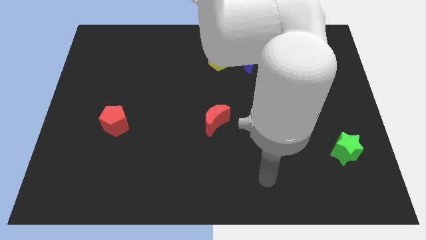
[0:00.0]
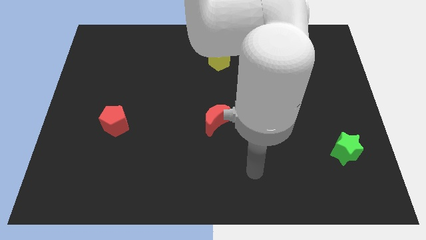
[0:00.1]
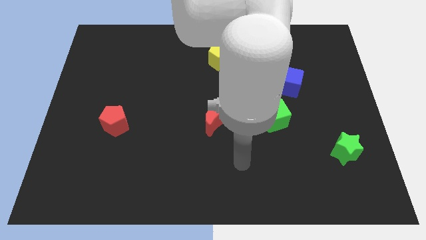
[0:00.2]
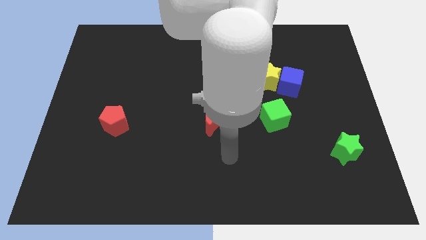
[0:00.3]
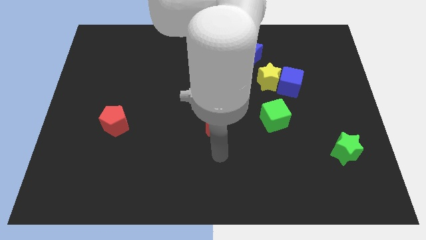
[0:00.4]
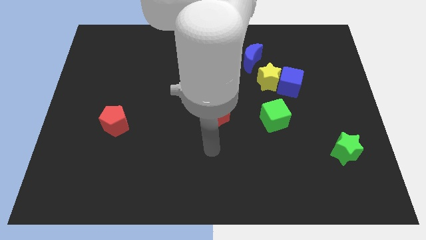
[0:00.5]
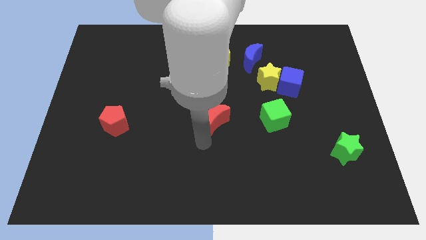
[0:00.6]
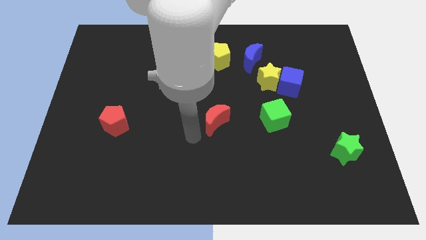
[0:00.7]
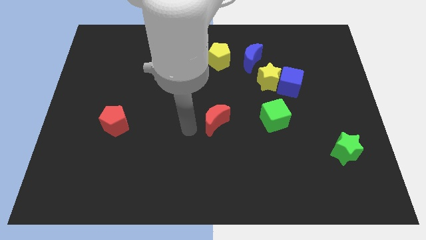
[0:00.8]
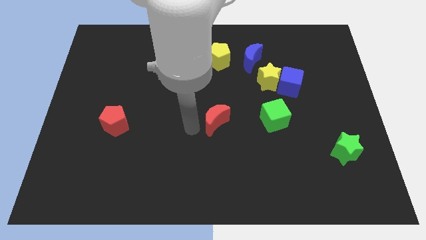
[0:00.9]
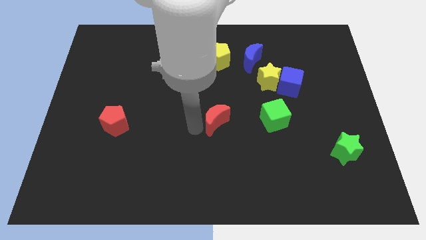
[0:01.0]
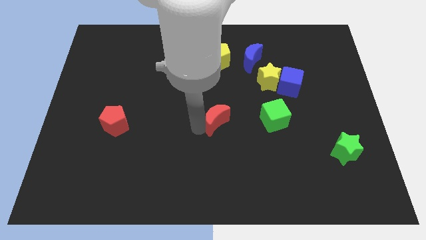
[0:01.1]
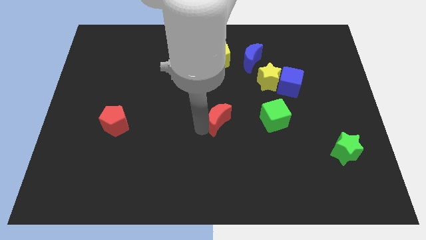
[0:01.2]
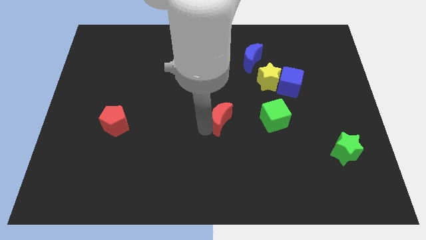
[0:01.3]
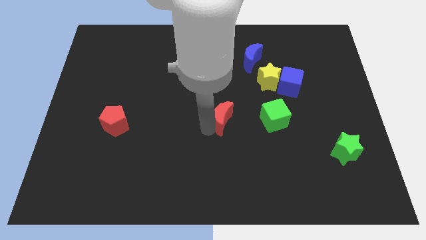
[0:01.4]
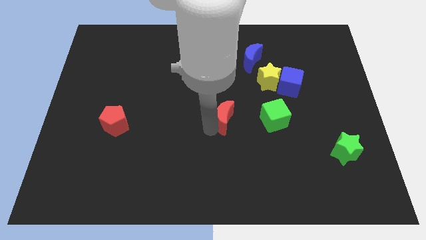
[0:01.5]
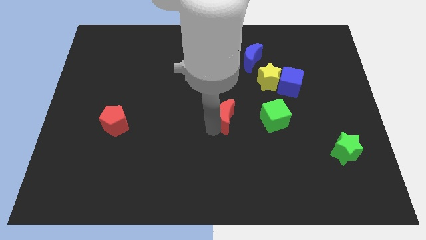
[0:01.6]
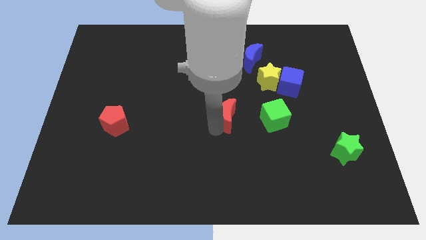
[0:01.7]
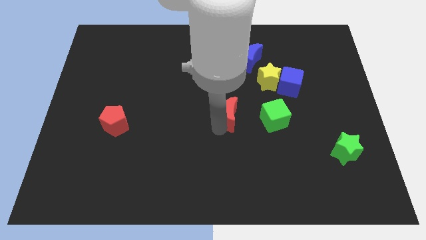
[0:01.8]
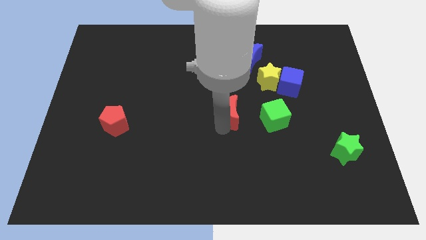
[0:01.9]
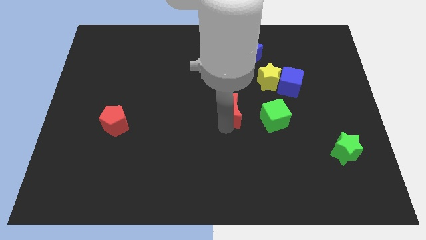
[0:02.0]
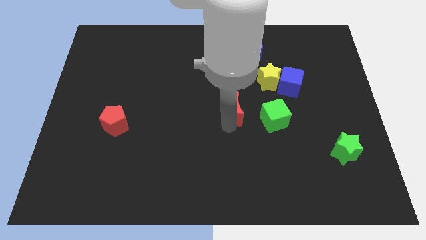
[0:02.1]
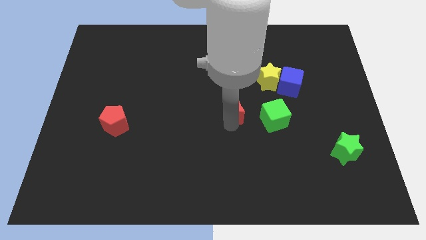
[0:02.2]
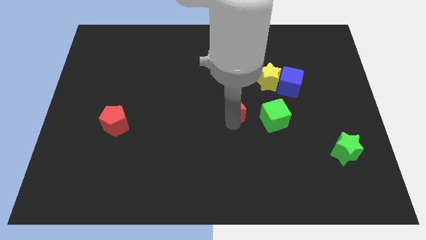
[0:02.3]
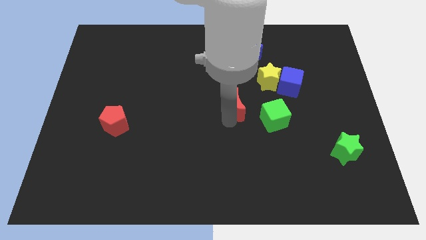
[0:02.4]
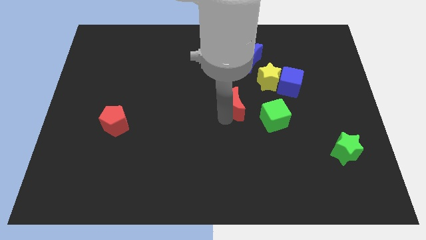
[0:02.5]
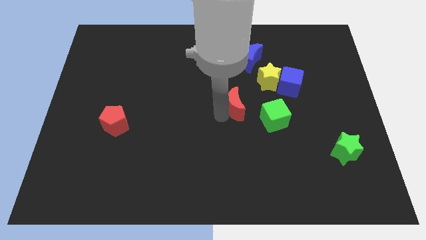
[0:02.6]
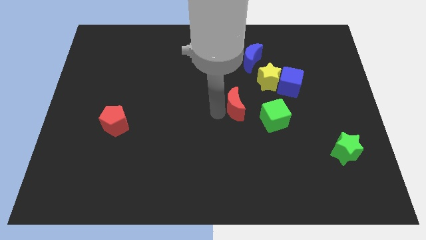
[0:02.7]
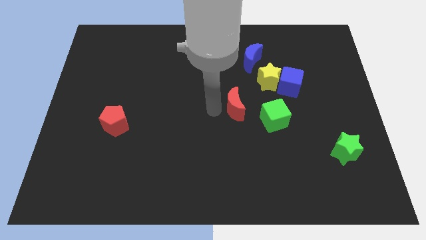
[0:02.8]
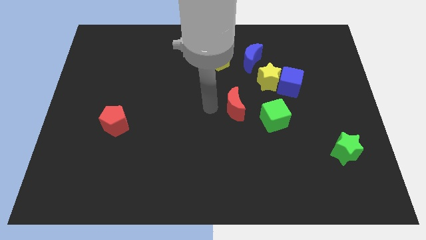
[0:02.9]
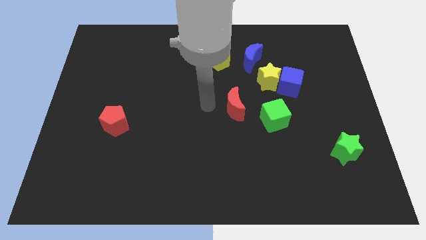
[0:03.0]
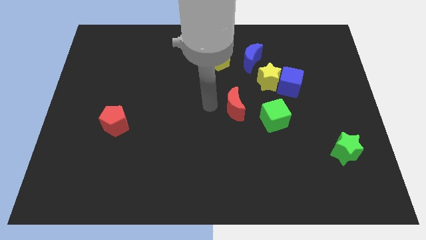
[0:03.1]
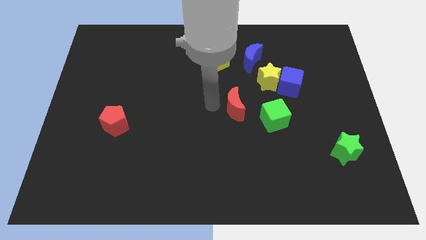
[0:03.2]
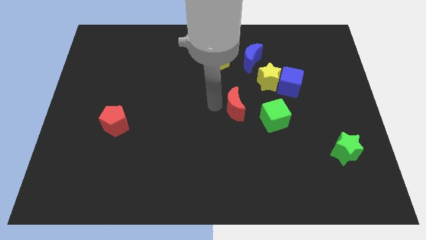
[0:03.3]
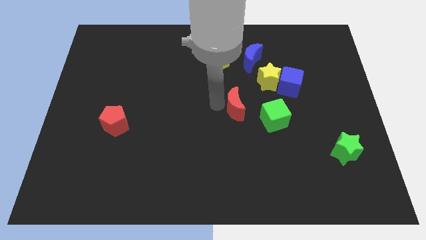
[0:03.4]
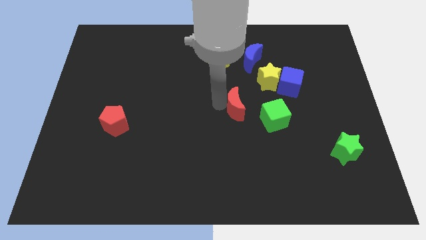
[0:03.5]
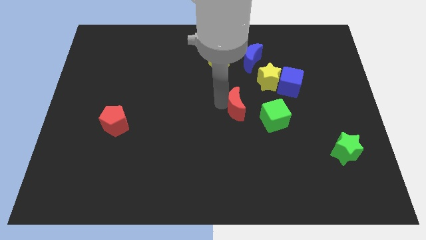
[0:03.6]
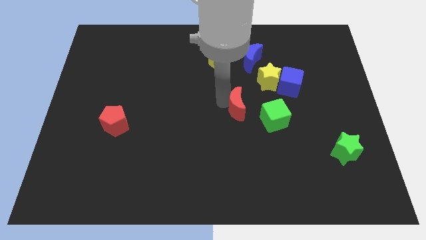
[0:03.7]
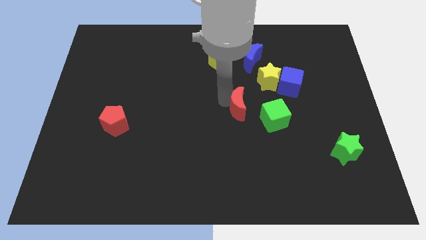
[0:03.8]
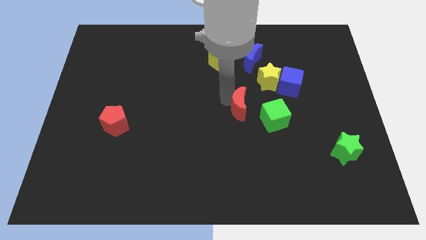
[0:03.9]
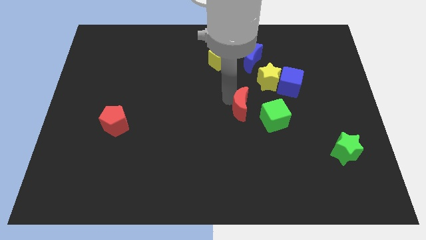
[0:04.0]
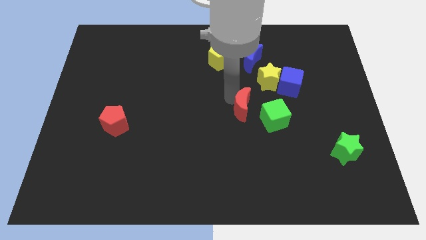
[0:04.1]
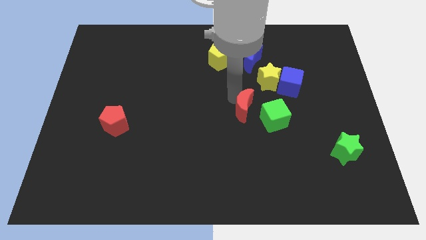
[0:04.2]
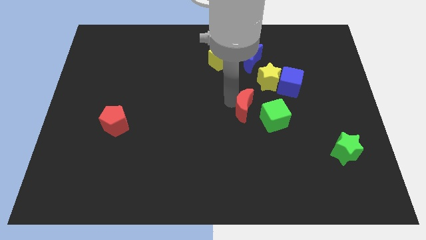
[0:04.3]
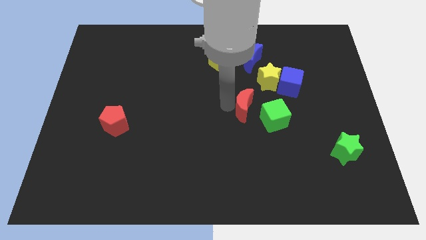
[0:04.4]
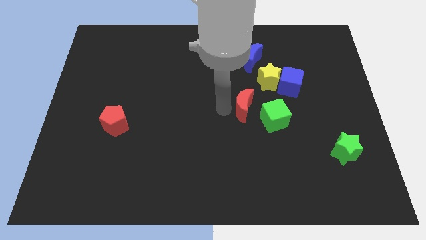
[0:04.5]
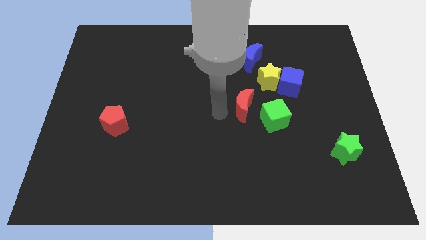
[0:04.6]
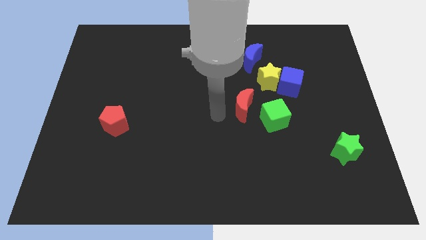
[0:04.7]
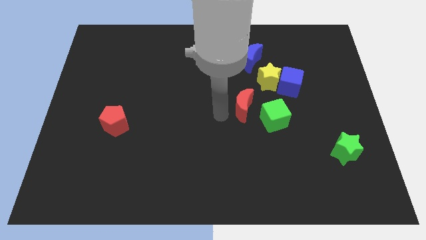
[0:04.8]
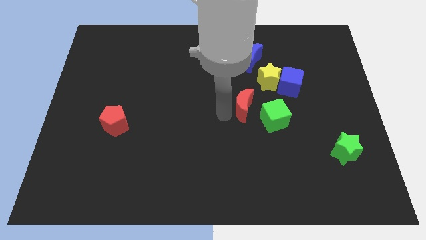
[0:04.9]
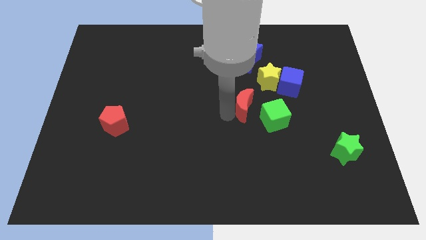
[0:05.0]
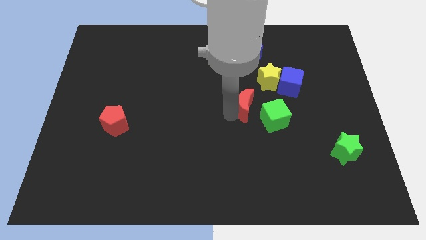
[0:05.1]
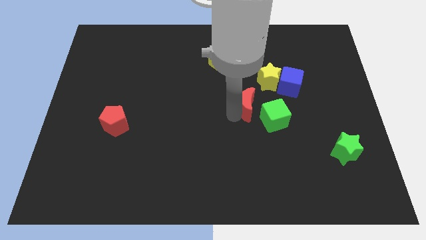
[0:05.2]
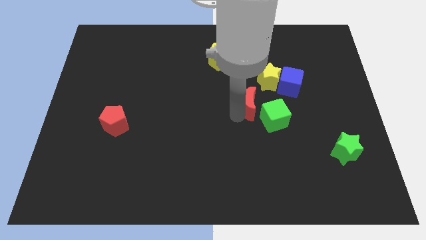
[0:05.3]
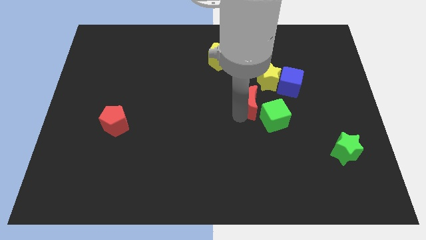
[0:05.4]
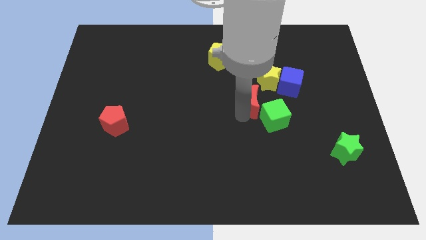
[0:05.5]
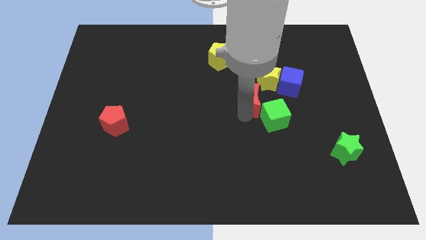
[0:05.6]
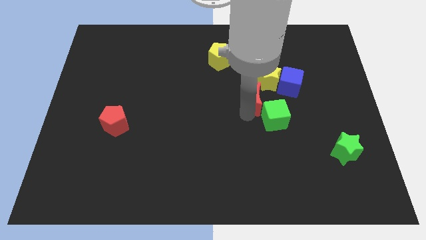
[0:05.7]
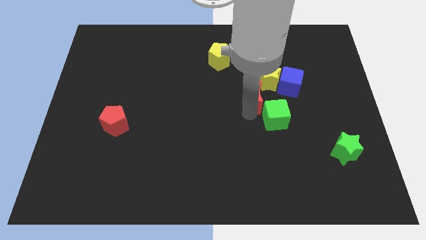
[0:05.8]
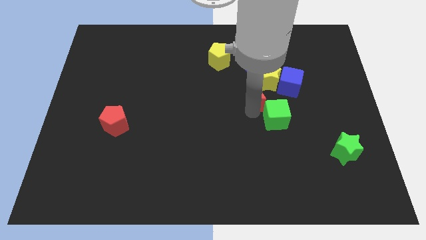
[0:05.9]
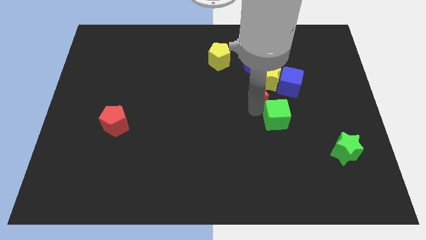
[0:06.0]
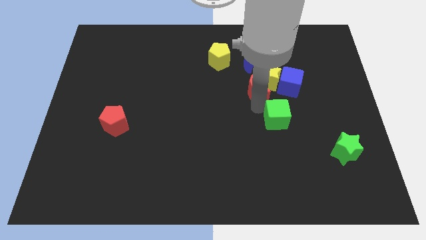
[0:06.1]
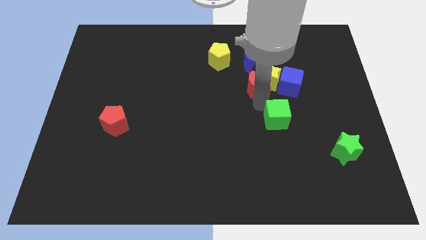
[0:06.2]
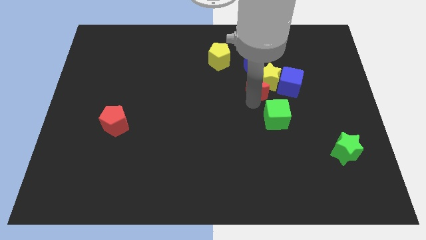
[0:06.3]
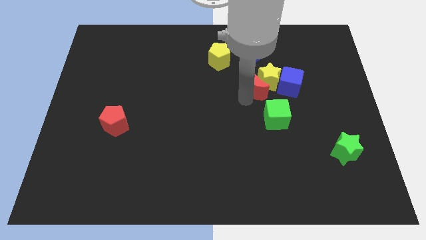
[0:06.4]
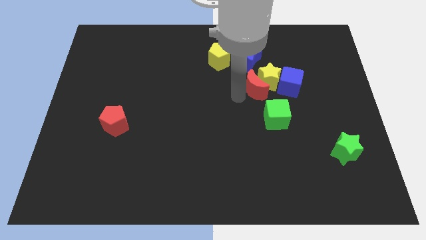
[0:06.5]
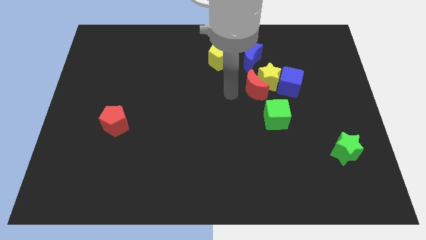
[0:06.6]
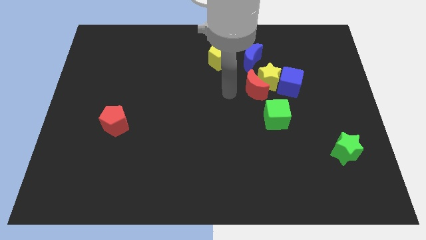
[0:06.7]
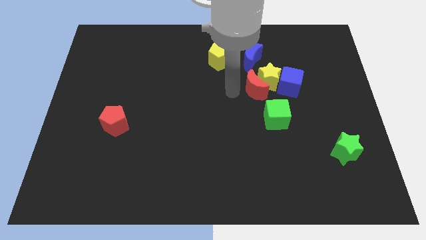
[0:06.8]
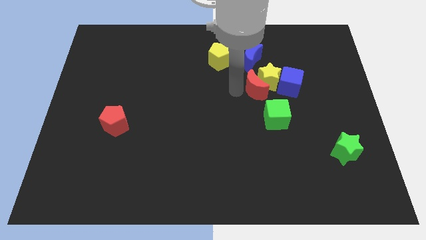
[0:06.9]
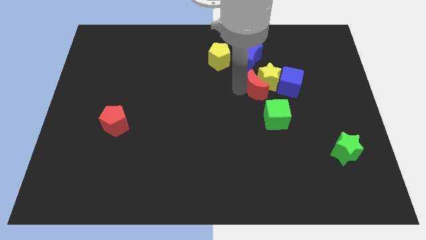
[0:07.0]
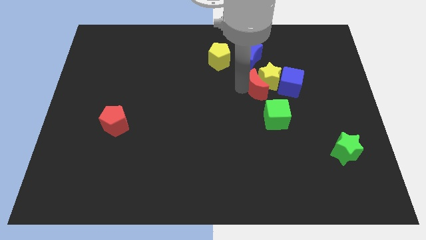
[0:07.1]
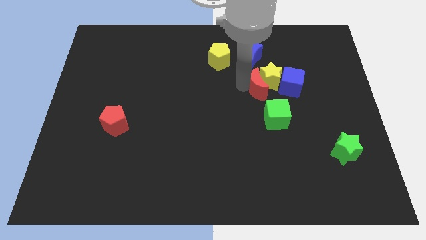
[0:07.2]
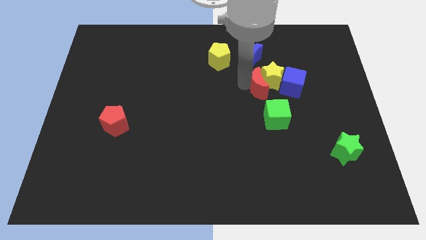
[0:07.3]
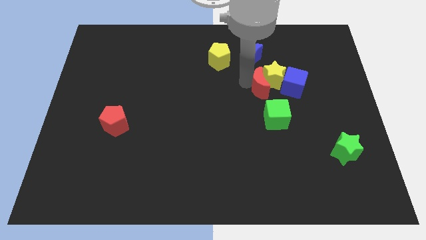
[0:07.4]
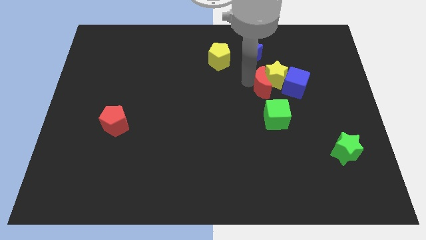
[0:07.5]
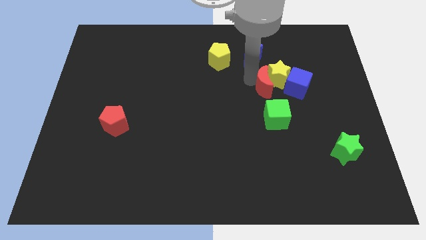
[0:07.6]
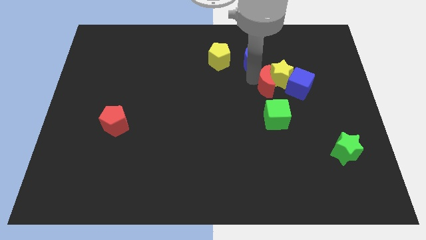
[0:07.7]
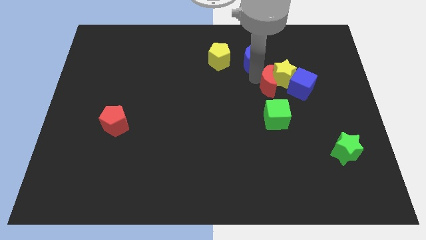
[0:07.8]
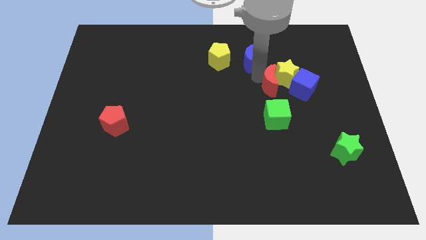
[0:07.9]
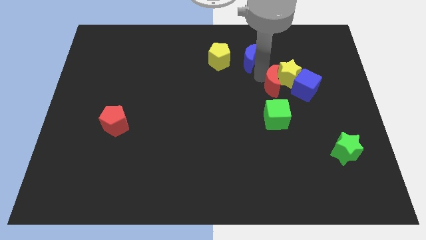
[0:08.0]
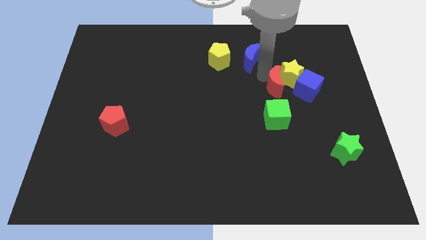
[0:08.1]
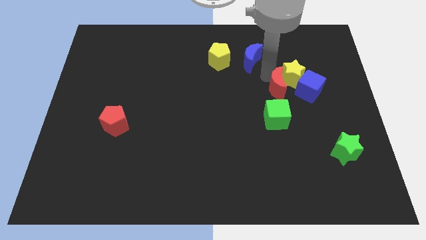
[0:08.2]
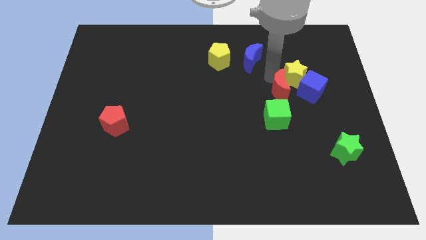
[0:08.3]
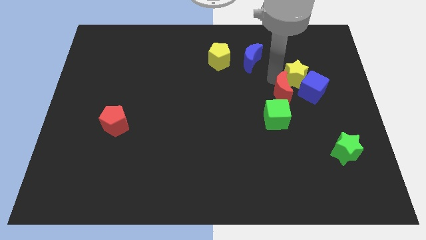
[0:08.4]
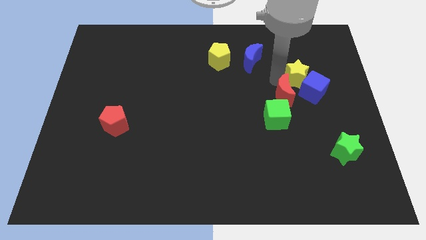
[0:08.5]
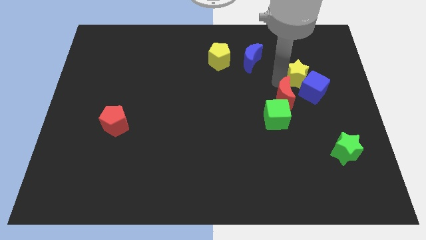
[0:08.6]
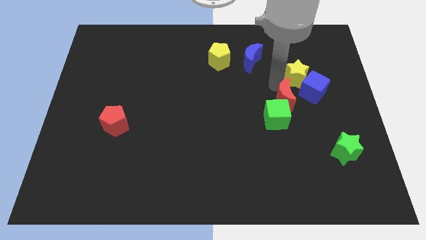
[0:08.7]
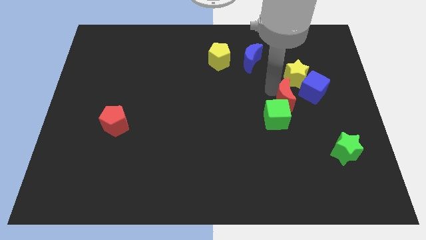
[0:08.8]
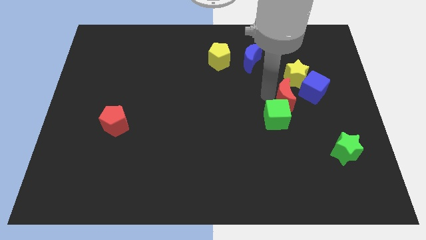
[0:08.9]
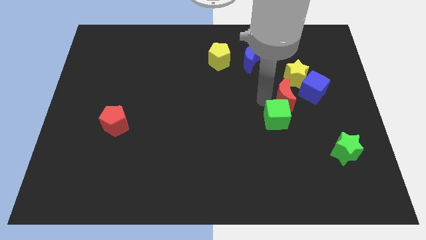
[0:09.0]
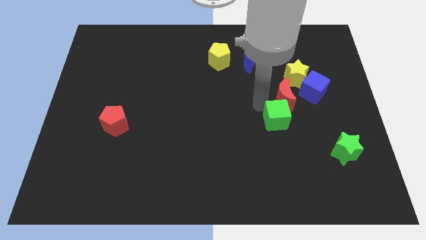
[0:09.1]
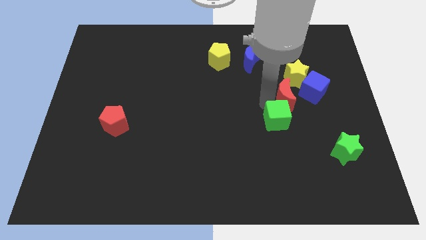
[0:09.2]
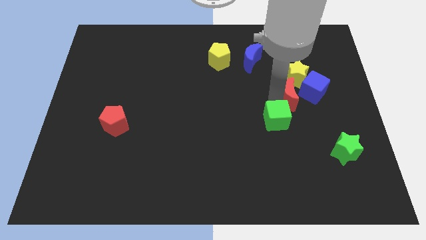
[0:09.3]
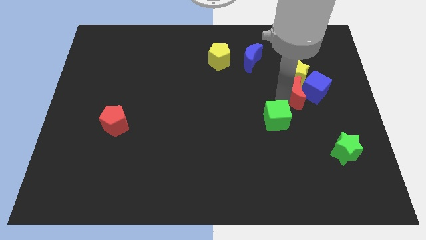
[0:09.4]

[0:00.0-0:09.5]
slide the red moon towards the blue cube
